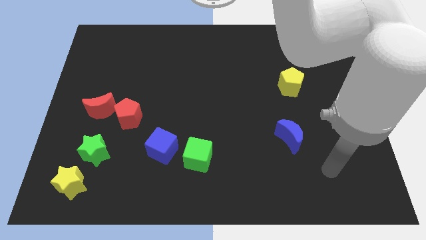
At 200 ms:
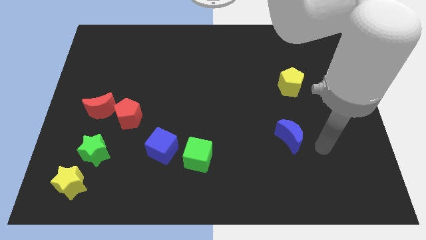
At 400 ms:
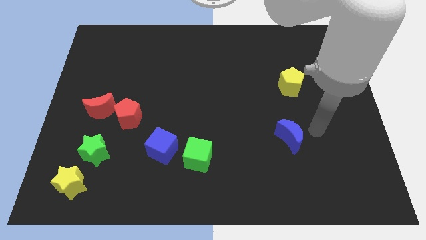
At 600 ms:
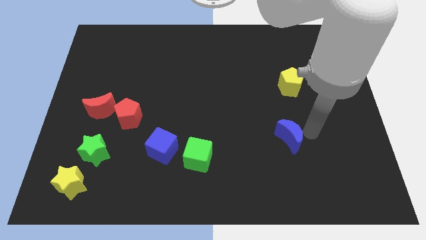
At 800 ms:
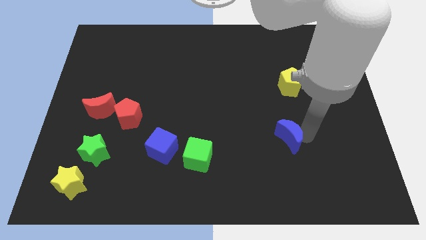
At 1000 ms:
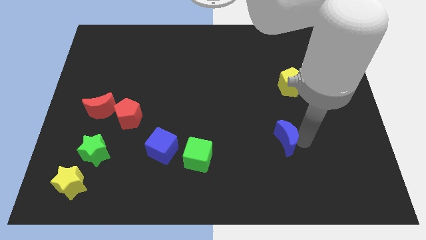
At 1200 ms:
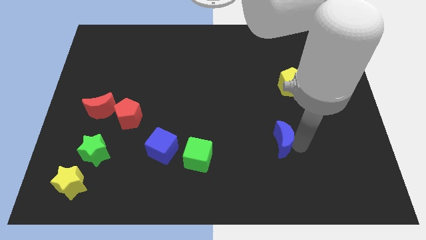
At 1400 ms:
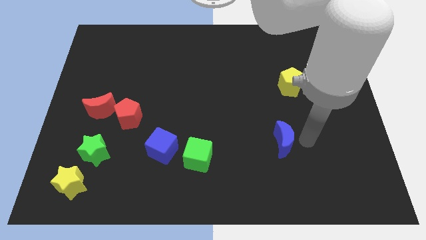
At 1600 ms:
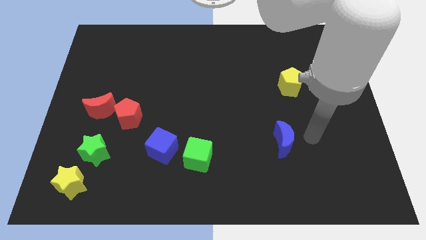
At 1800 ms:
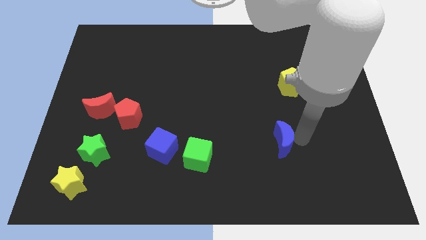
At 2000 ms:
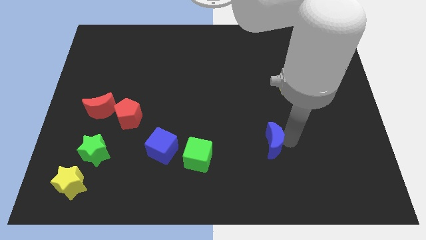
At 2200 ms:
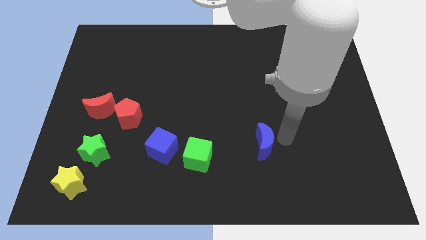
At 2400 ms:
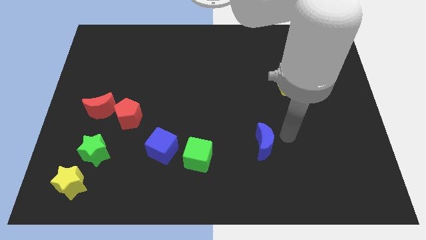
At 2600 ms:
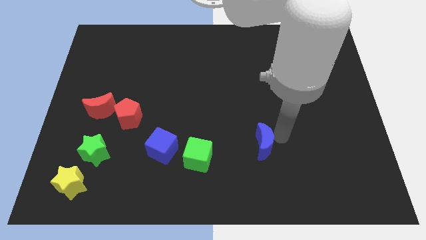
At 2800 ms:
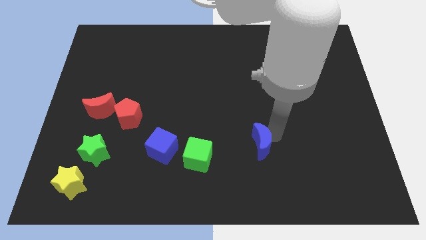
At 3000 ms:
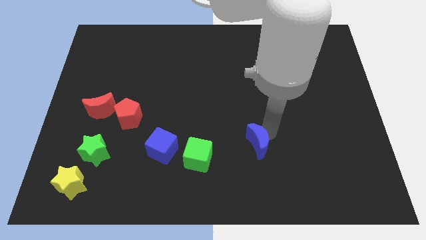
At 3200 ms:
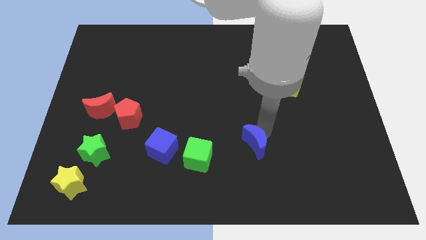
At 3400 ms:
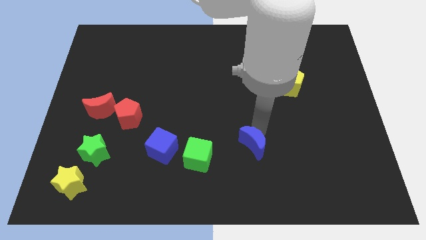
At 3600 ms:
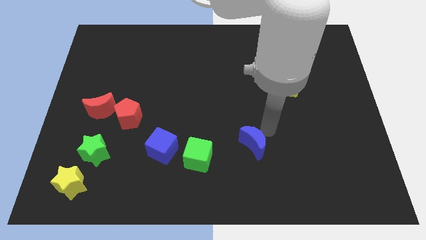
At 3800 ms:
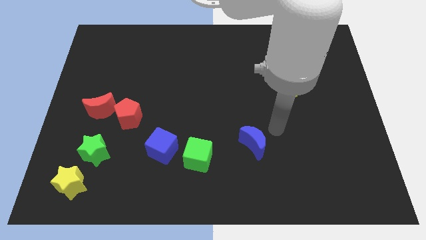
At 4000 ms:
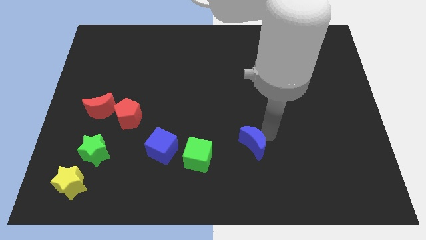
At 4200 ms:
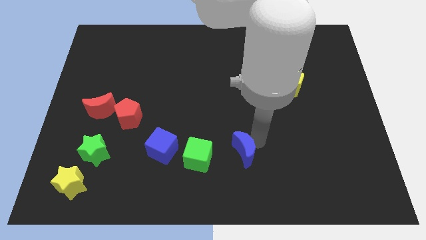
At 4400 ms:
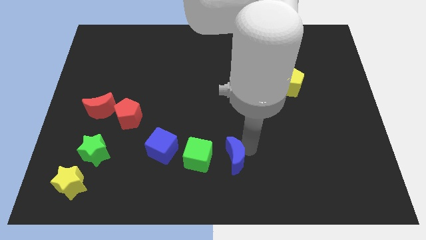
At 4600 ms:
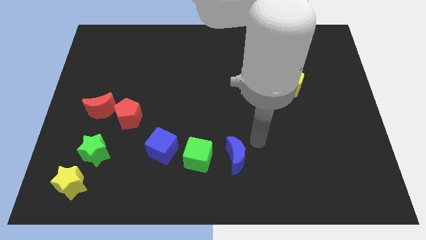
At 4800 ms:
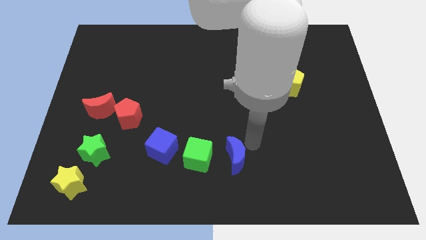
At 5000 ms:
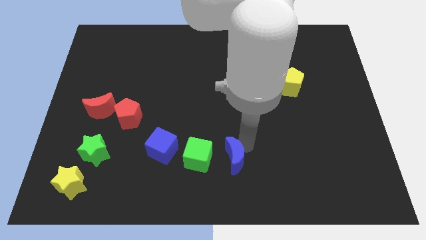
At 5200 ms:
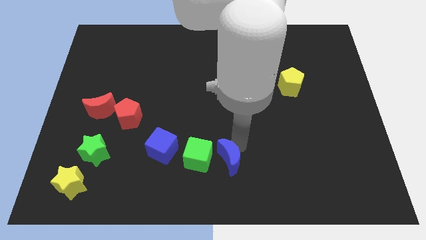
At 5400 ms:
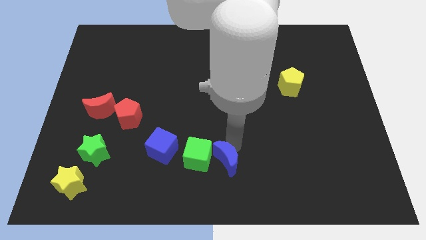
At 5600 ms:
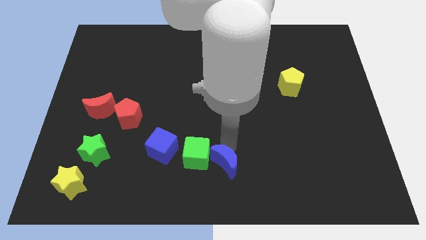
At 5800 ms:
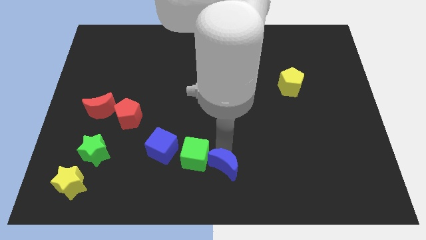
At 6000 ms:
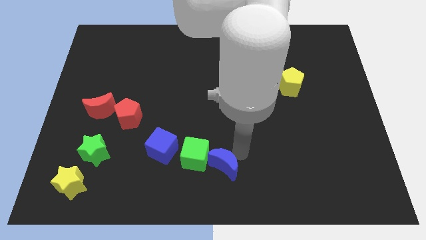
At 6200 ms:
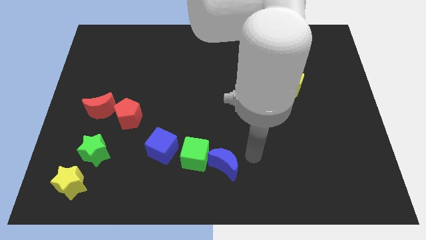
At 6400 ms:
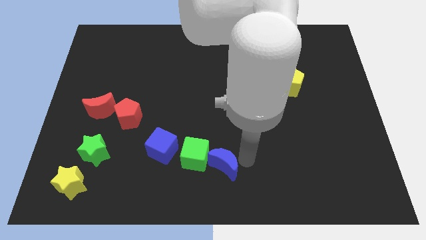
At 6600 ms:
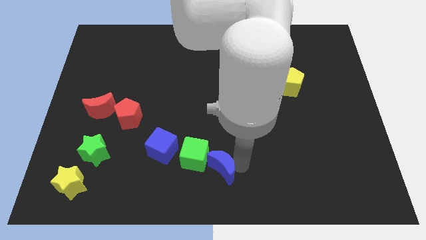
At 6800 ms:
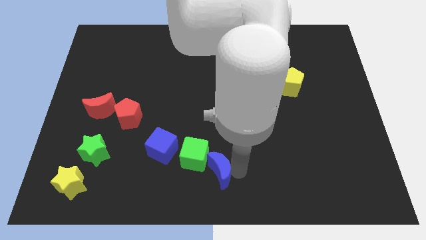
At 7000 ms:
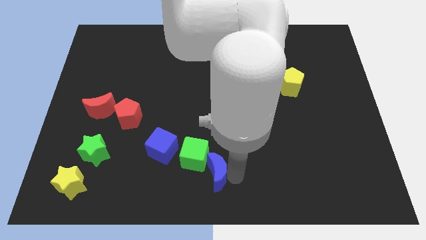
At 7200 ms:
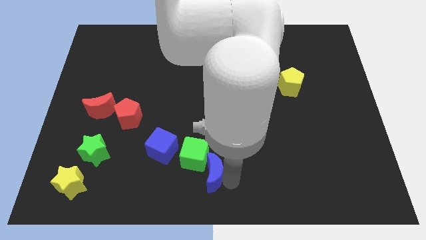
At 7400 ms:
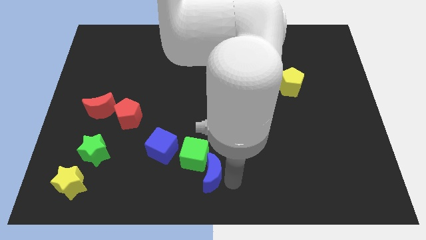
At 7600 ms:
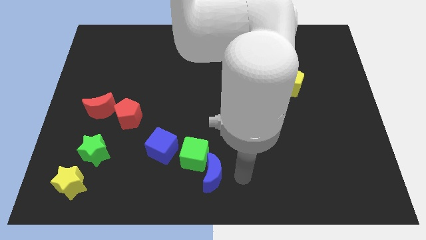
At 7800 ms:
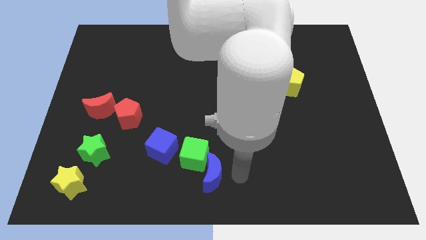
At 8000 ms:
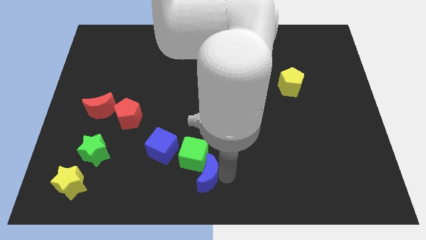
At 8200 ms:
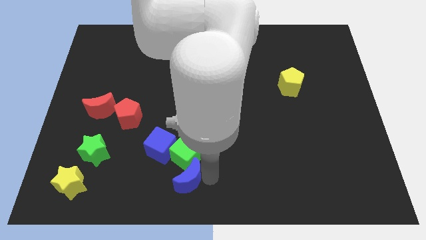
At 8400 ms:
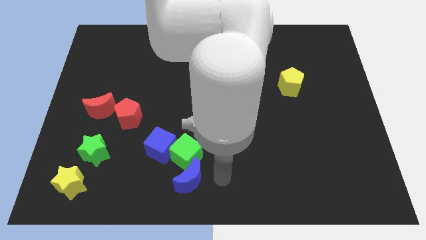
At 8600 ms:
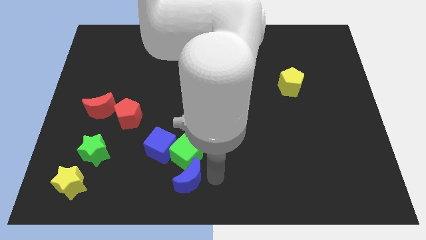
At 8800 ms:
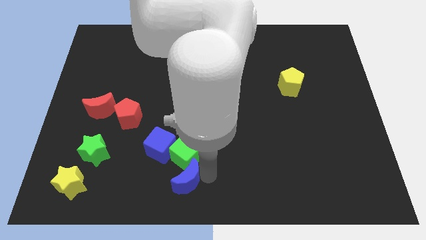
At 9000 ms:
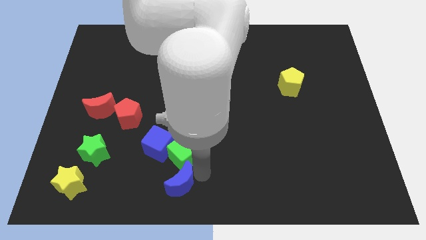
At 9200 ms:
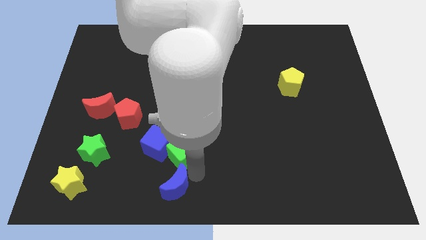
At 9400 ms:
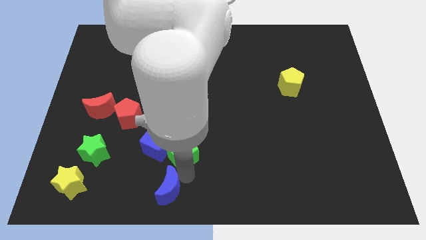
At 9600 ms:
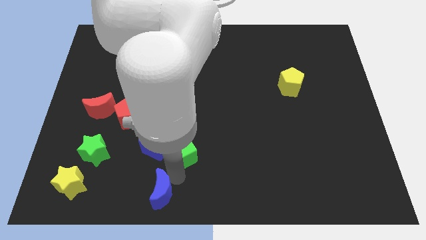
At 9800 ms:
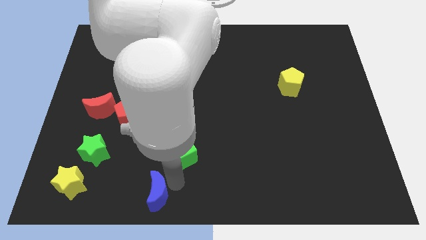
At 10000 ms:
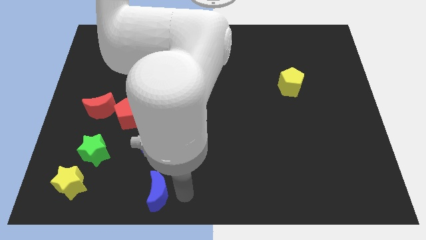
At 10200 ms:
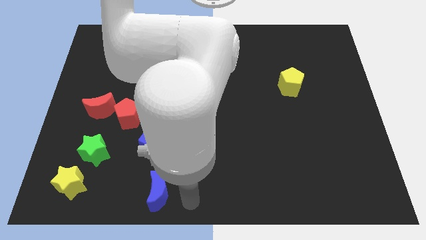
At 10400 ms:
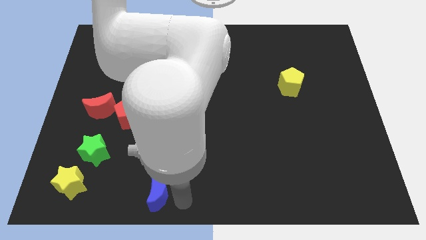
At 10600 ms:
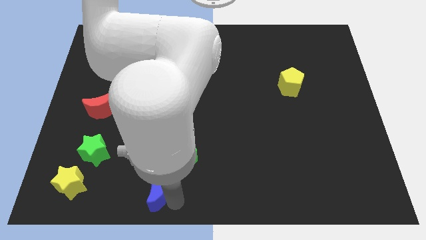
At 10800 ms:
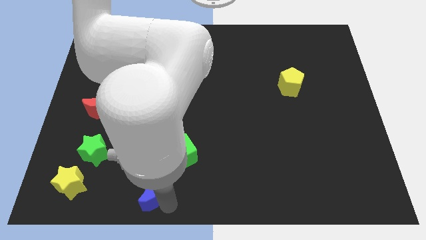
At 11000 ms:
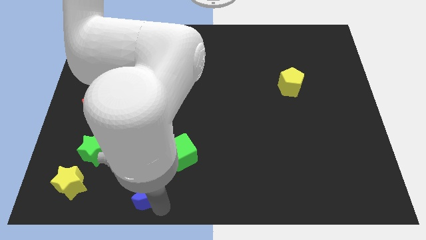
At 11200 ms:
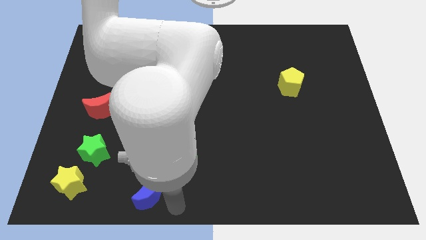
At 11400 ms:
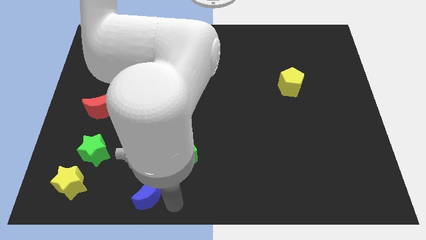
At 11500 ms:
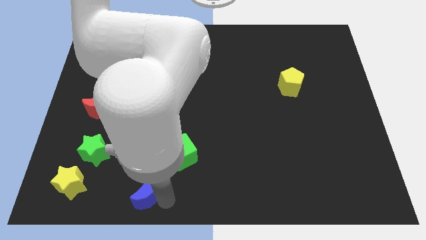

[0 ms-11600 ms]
push the blue moon to the right side of the yellow star
